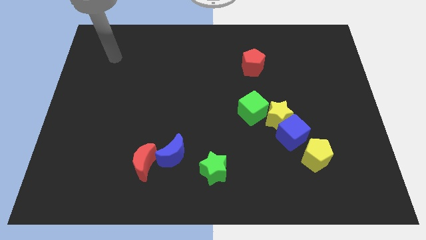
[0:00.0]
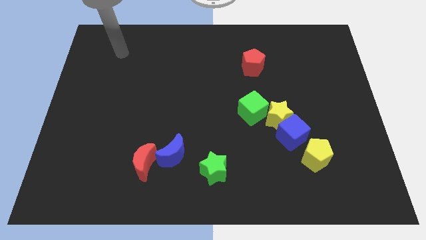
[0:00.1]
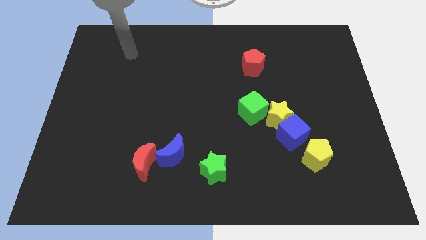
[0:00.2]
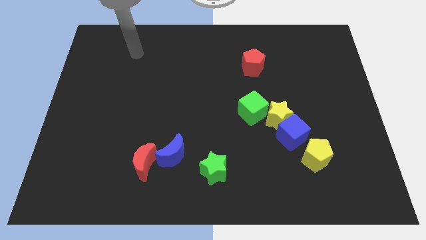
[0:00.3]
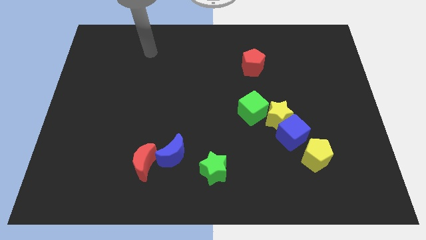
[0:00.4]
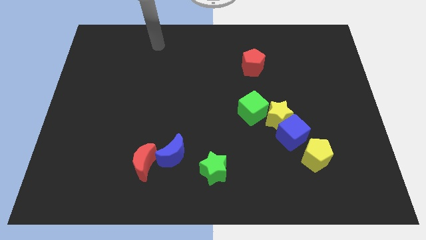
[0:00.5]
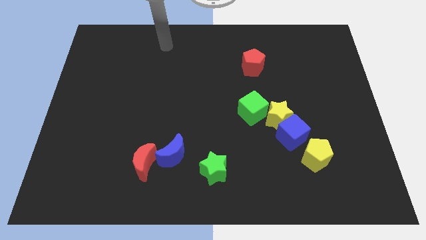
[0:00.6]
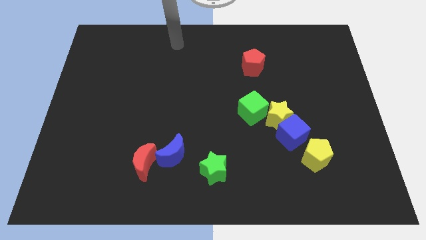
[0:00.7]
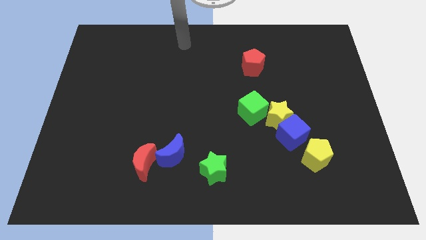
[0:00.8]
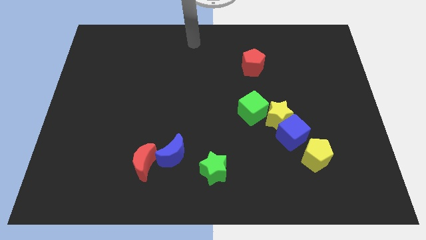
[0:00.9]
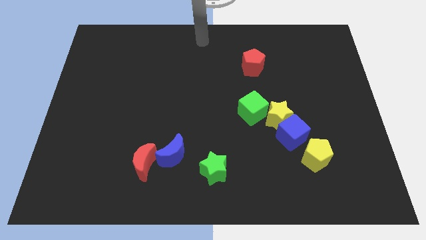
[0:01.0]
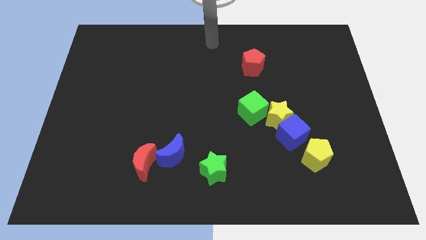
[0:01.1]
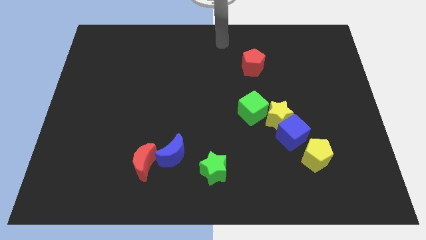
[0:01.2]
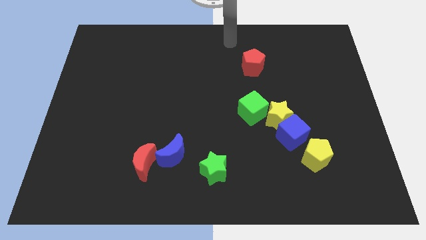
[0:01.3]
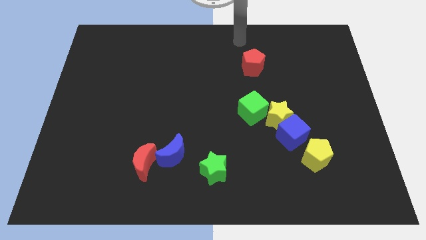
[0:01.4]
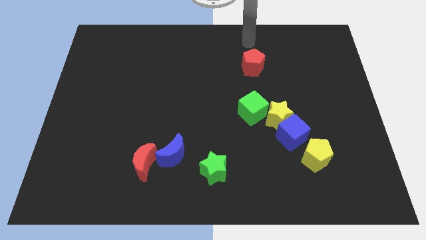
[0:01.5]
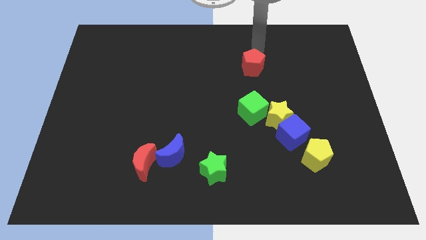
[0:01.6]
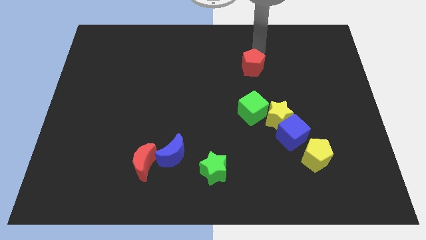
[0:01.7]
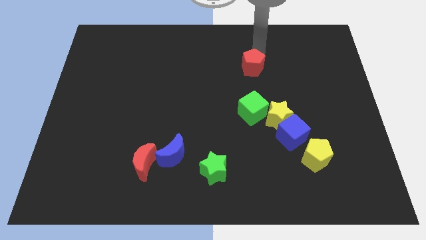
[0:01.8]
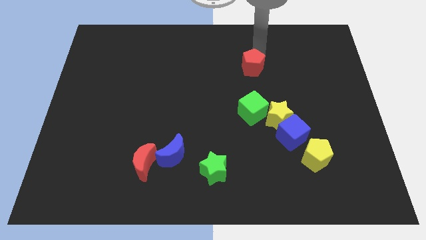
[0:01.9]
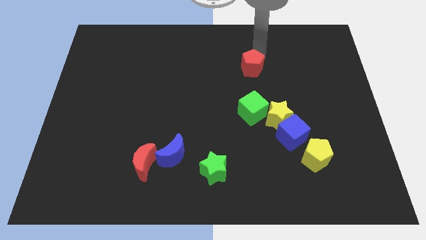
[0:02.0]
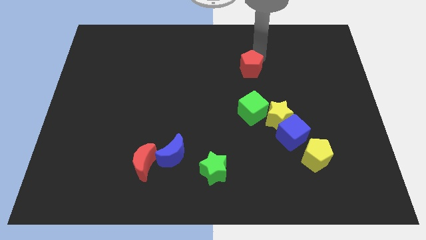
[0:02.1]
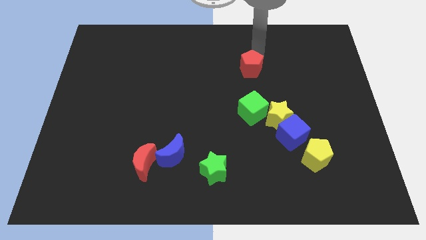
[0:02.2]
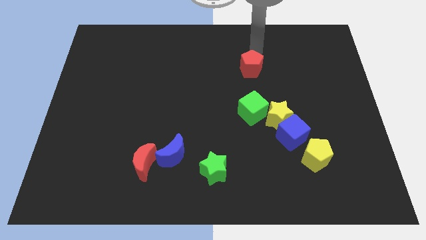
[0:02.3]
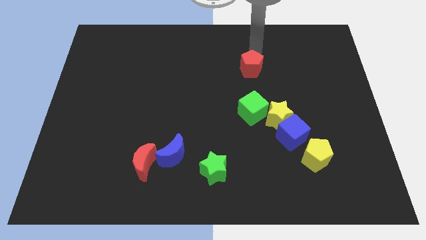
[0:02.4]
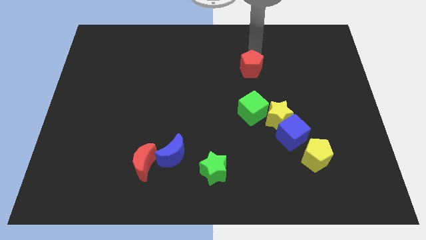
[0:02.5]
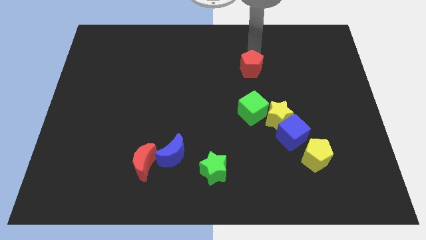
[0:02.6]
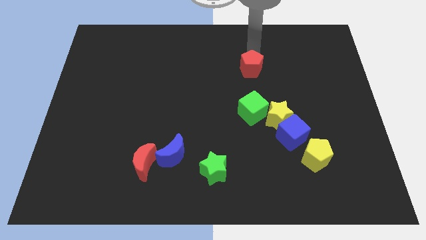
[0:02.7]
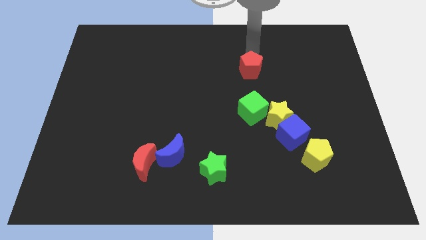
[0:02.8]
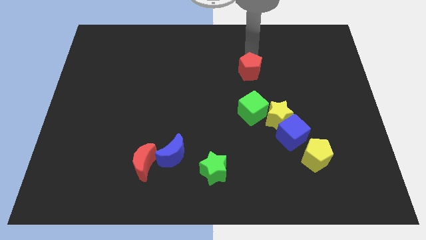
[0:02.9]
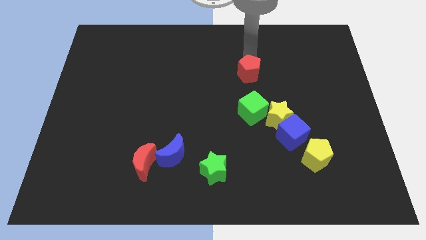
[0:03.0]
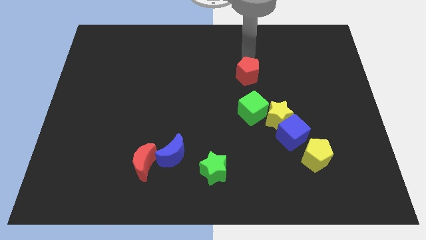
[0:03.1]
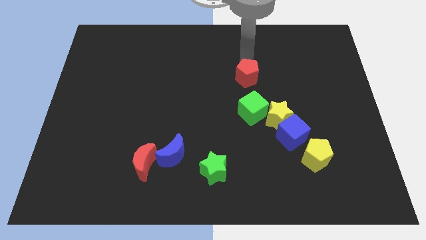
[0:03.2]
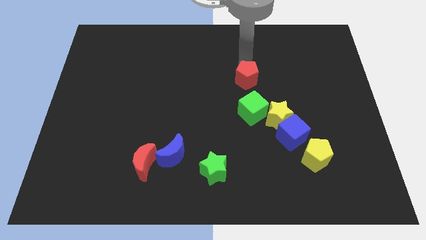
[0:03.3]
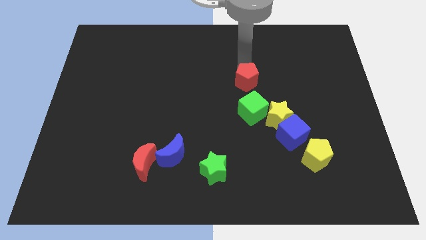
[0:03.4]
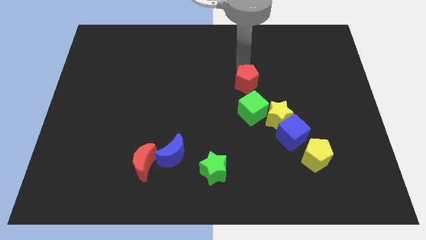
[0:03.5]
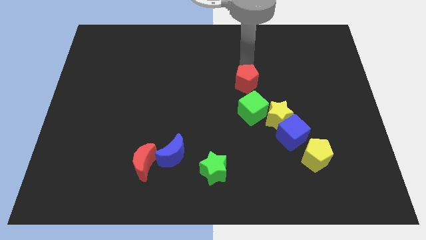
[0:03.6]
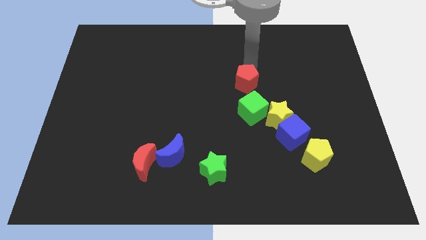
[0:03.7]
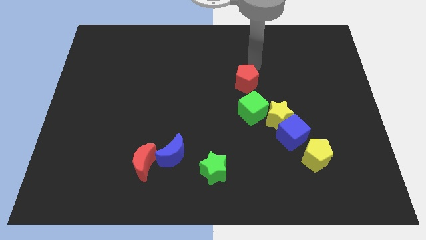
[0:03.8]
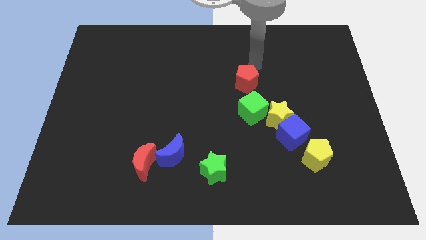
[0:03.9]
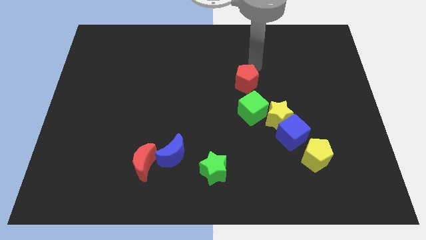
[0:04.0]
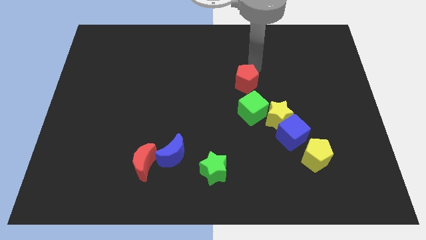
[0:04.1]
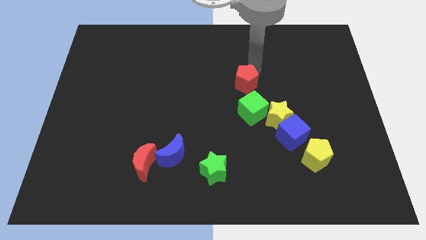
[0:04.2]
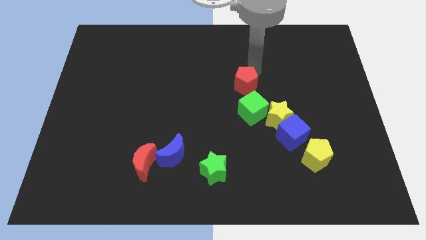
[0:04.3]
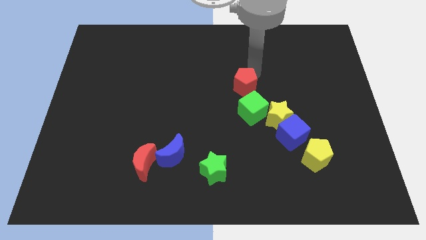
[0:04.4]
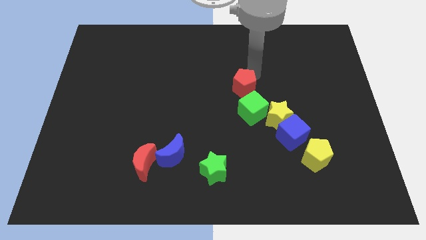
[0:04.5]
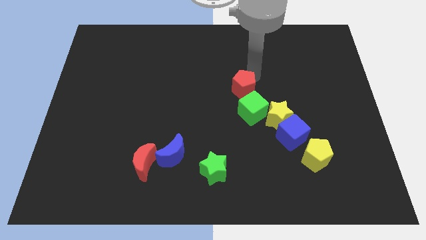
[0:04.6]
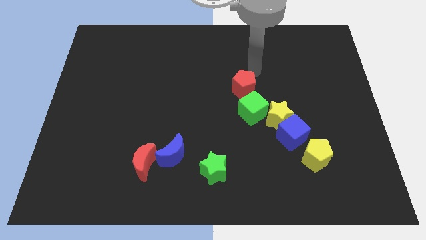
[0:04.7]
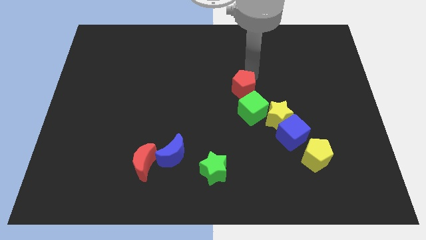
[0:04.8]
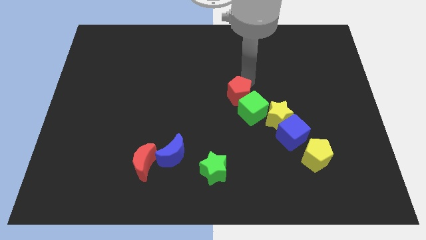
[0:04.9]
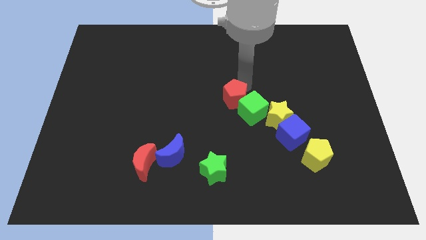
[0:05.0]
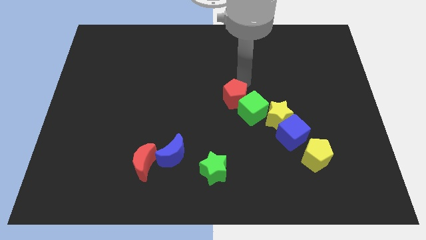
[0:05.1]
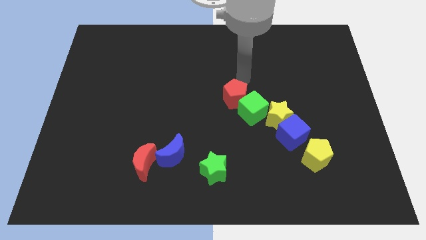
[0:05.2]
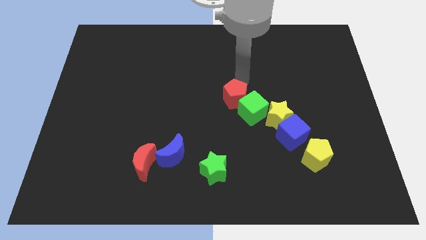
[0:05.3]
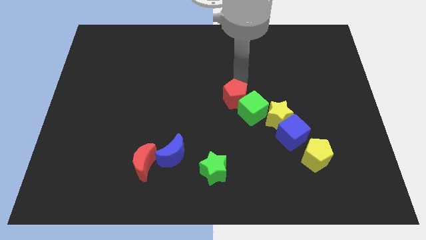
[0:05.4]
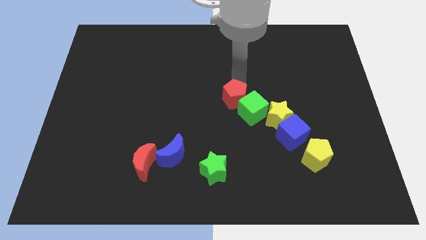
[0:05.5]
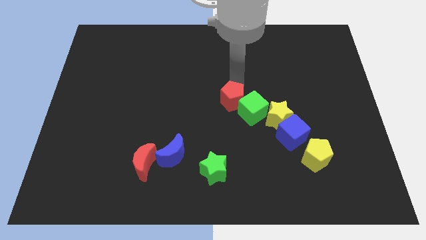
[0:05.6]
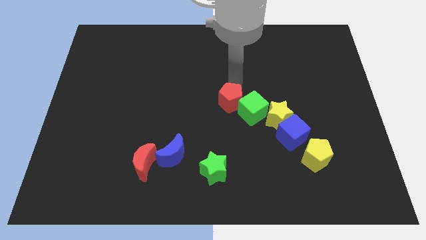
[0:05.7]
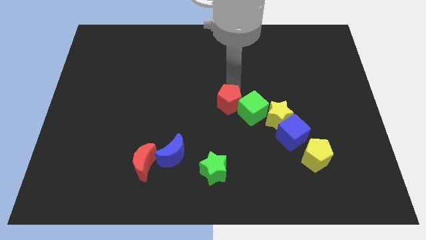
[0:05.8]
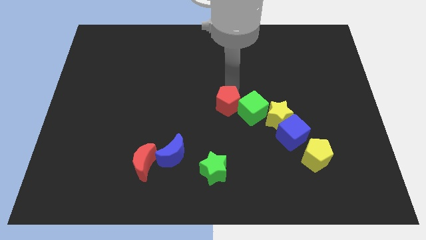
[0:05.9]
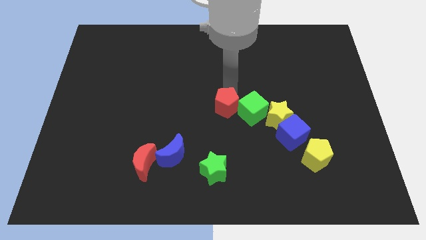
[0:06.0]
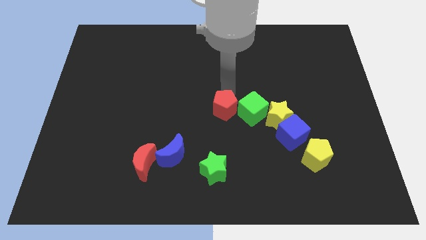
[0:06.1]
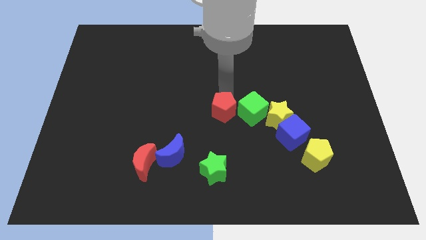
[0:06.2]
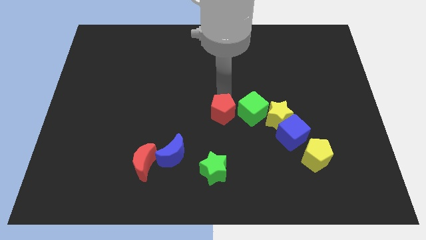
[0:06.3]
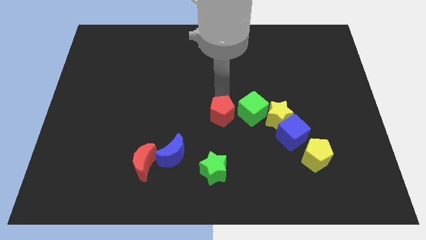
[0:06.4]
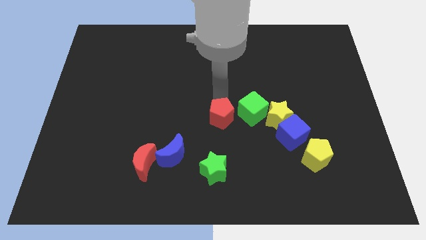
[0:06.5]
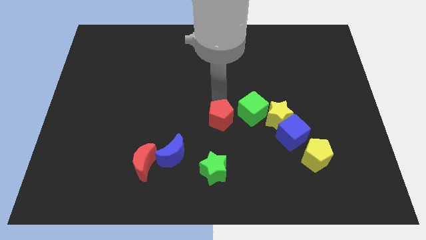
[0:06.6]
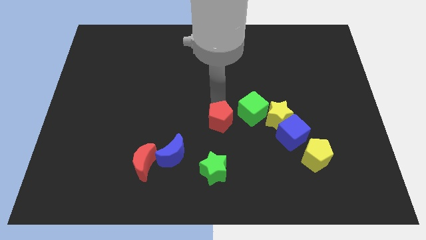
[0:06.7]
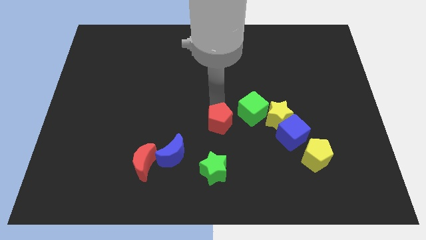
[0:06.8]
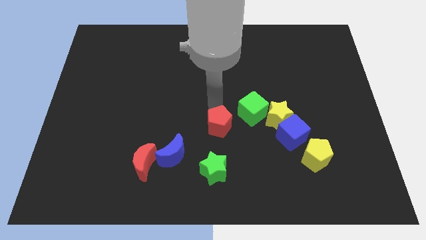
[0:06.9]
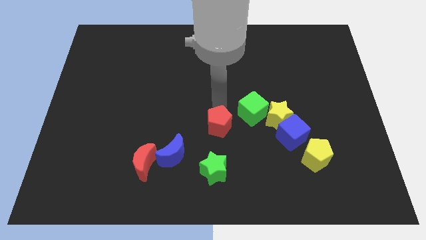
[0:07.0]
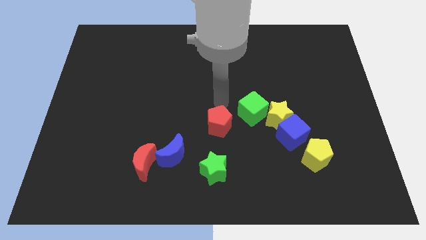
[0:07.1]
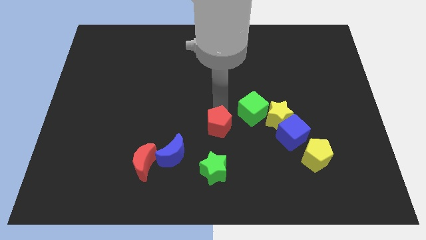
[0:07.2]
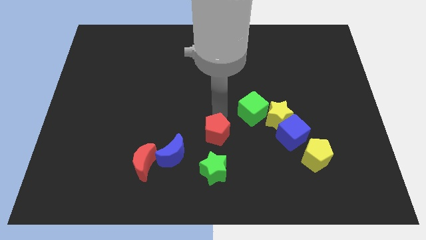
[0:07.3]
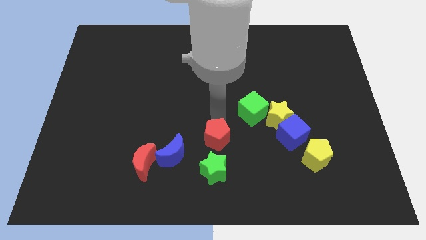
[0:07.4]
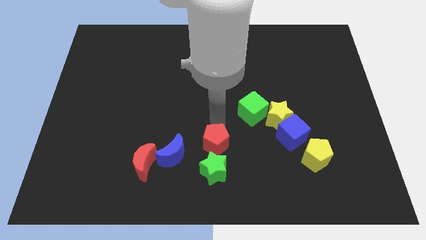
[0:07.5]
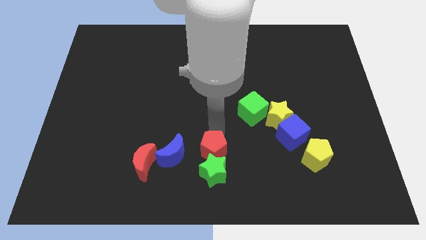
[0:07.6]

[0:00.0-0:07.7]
put the red pentagon next to the green star
